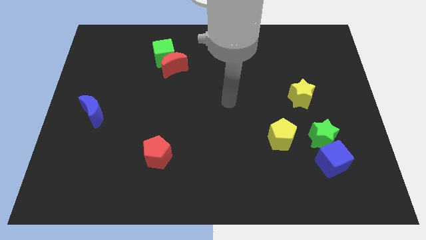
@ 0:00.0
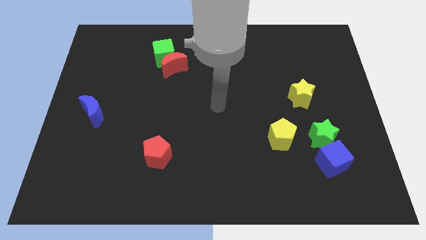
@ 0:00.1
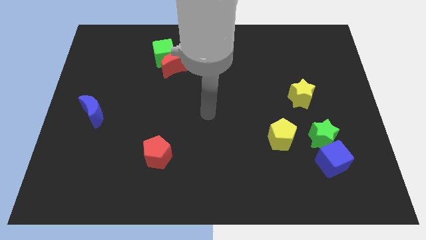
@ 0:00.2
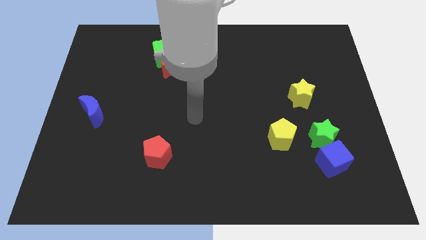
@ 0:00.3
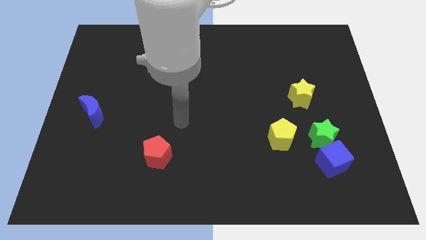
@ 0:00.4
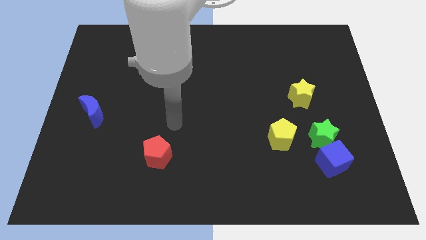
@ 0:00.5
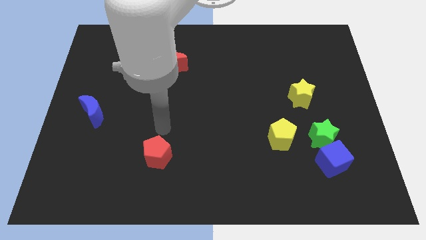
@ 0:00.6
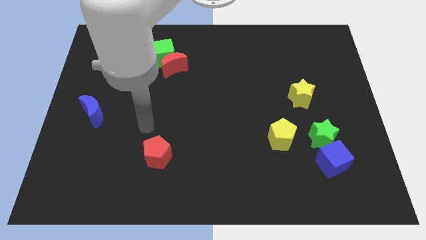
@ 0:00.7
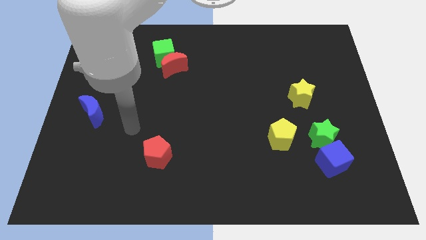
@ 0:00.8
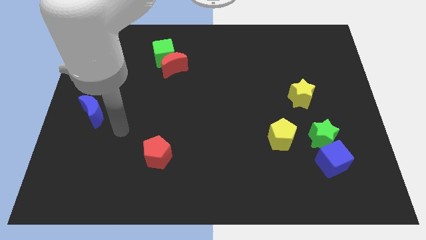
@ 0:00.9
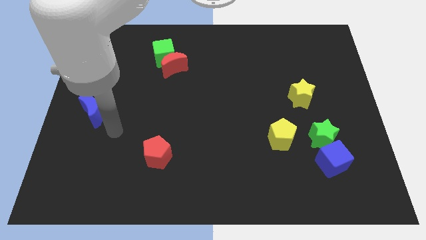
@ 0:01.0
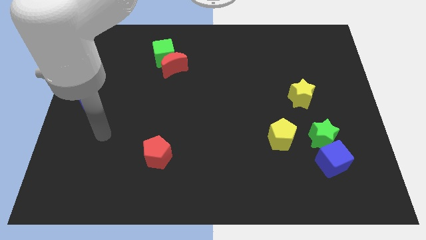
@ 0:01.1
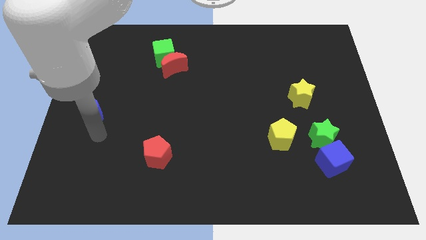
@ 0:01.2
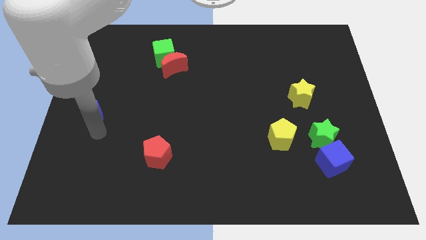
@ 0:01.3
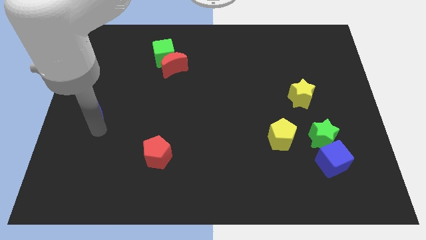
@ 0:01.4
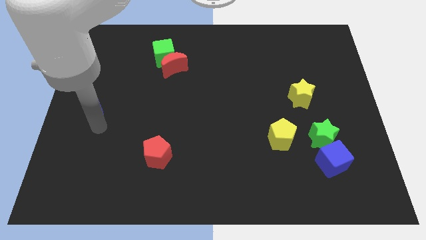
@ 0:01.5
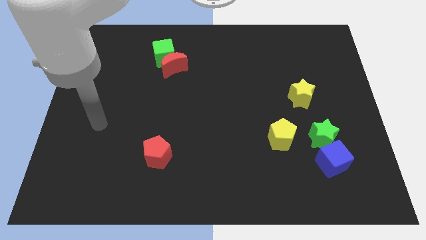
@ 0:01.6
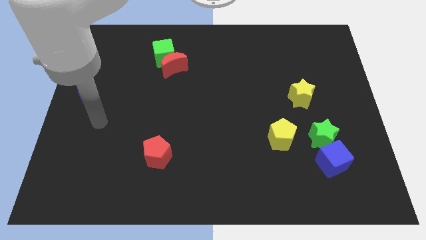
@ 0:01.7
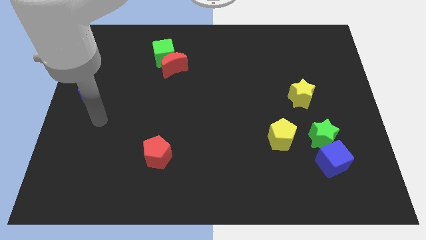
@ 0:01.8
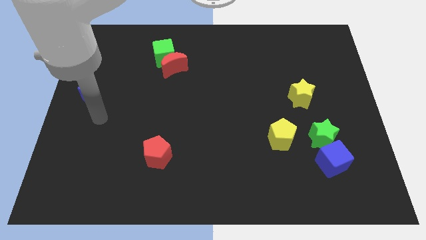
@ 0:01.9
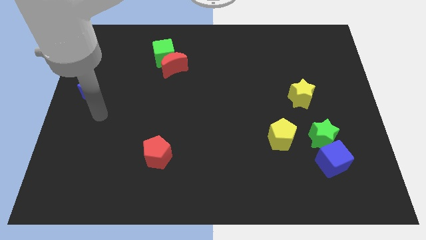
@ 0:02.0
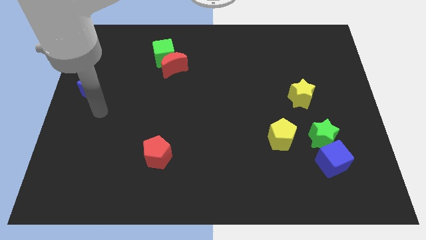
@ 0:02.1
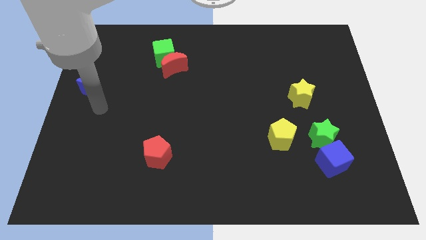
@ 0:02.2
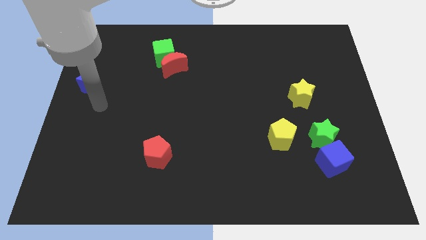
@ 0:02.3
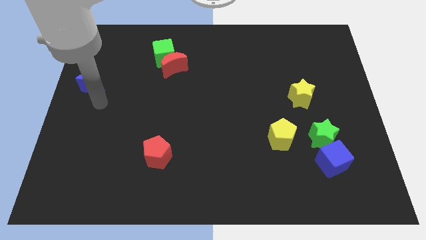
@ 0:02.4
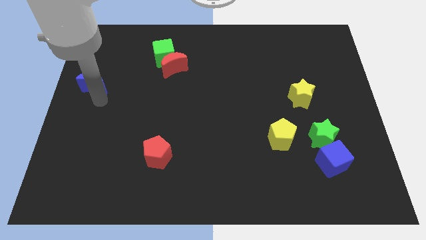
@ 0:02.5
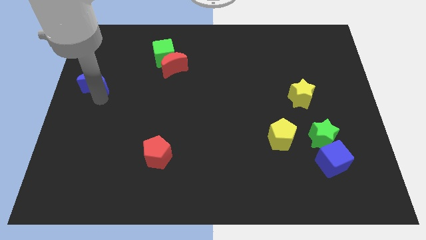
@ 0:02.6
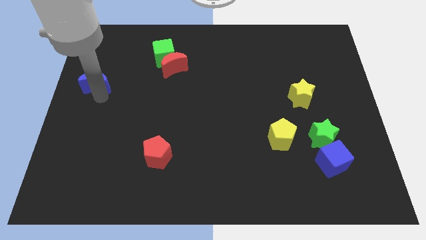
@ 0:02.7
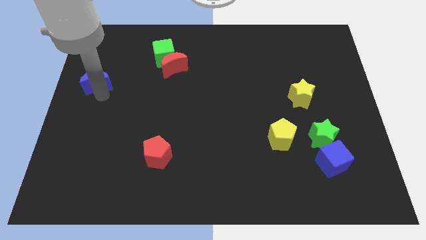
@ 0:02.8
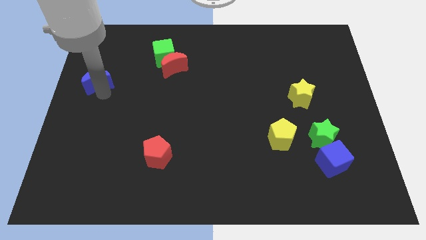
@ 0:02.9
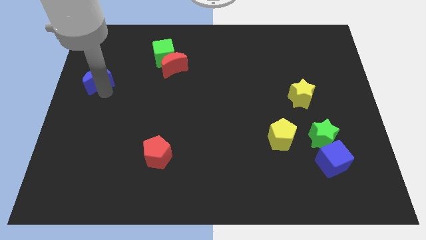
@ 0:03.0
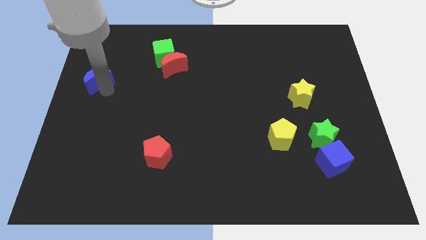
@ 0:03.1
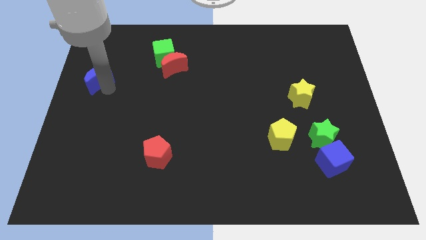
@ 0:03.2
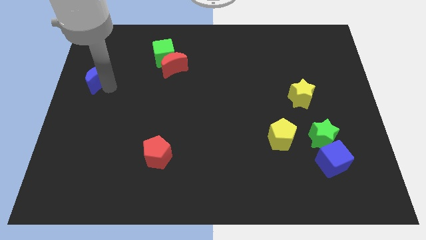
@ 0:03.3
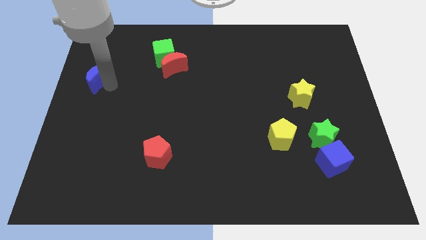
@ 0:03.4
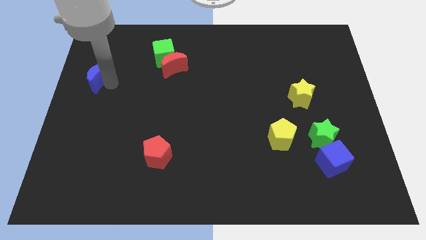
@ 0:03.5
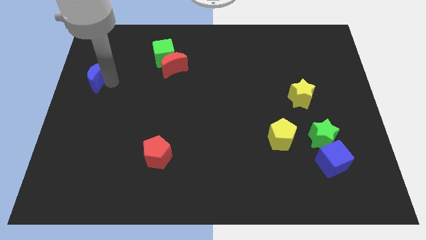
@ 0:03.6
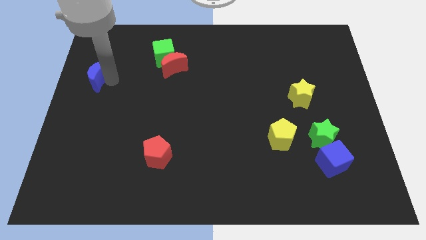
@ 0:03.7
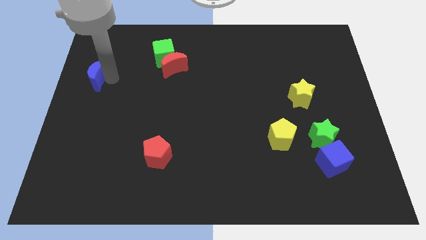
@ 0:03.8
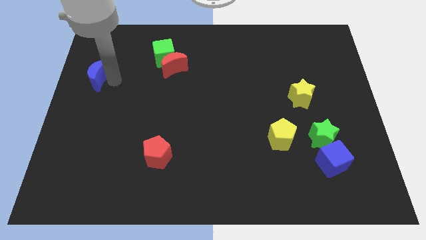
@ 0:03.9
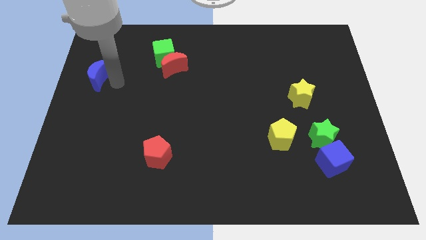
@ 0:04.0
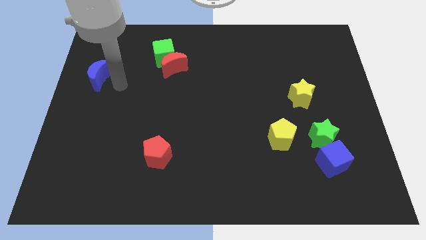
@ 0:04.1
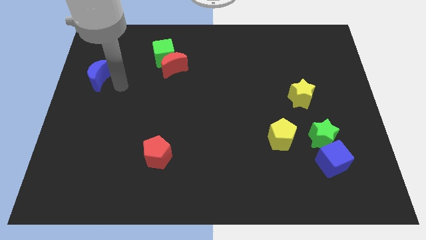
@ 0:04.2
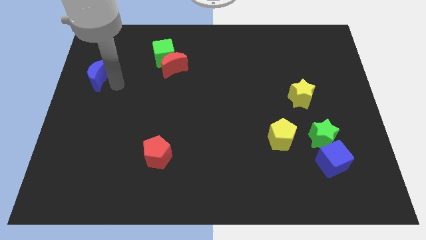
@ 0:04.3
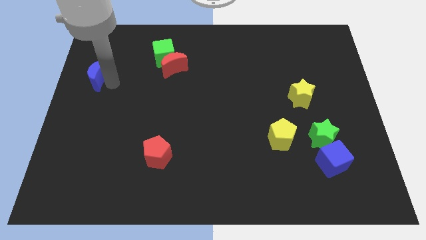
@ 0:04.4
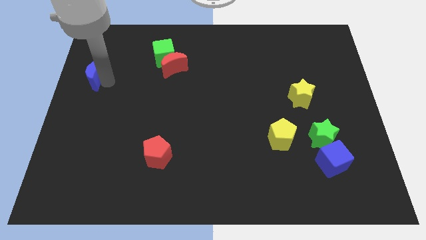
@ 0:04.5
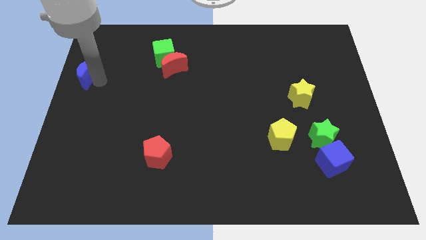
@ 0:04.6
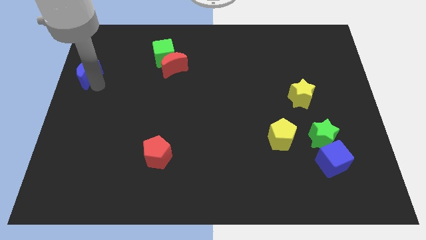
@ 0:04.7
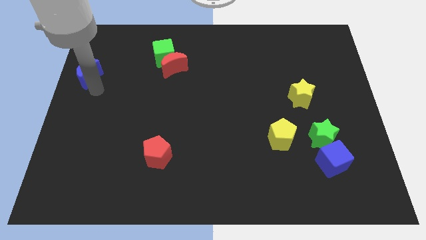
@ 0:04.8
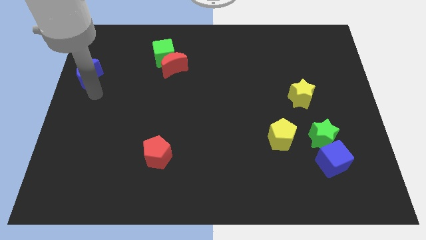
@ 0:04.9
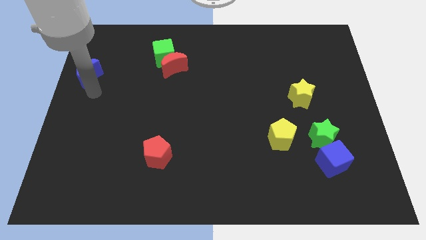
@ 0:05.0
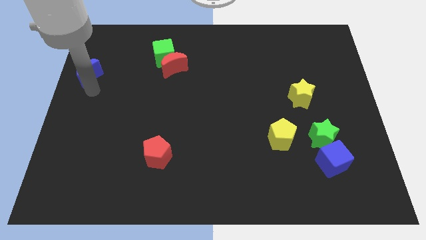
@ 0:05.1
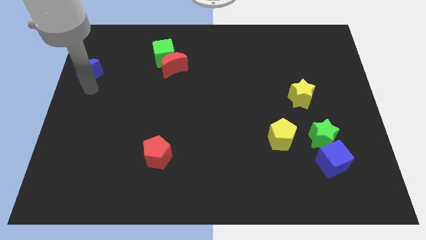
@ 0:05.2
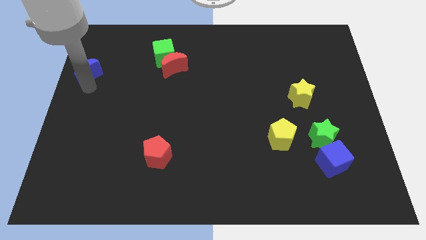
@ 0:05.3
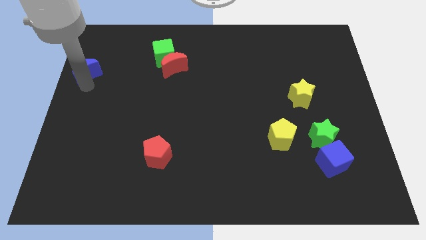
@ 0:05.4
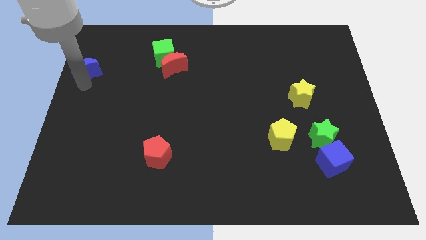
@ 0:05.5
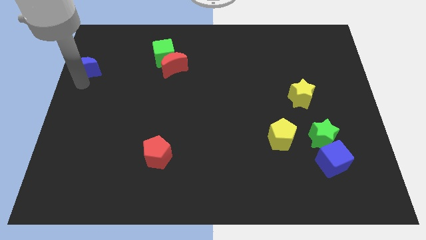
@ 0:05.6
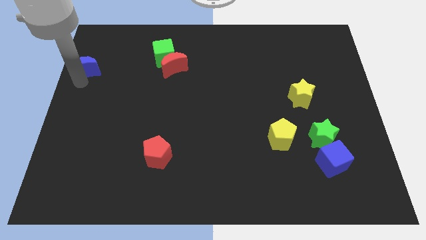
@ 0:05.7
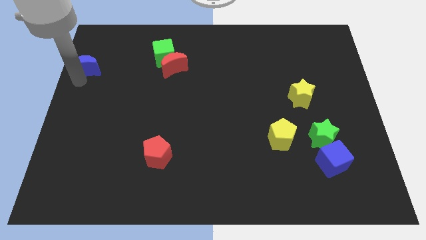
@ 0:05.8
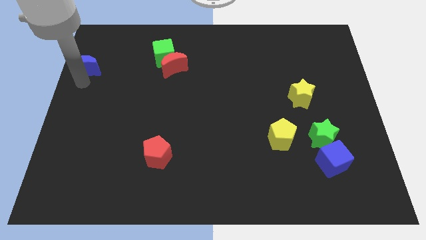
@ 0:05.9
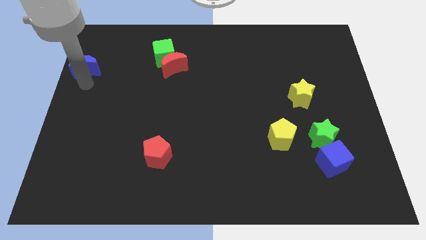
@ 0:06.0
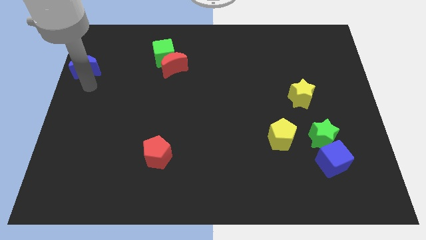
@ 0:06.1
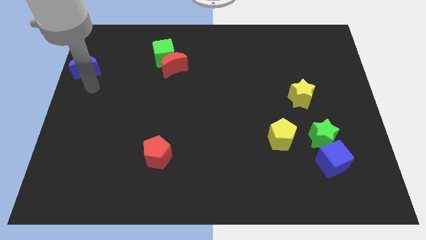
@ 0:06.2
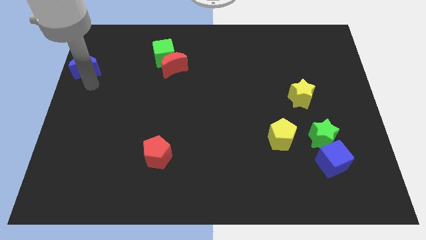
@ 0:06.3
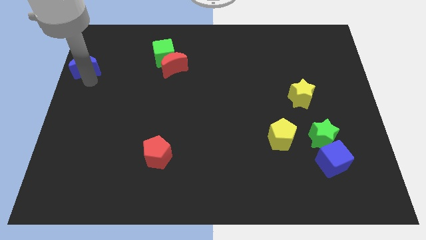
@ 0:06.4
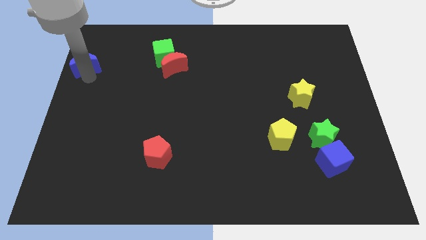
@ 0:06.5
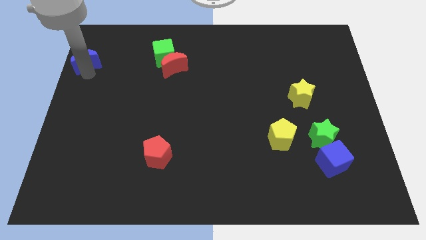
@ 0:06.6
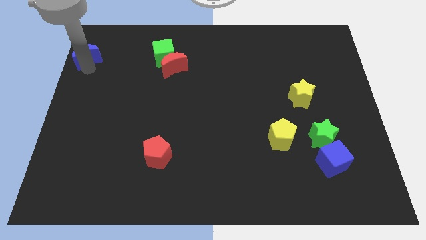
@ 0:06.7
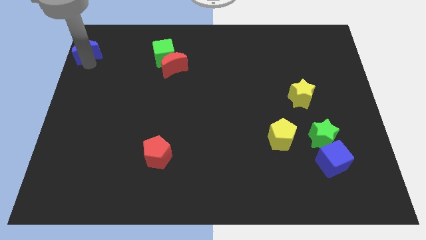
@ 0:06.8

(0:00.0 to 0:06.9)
slide the blue moon to the top left

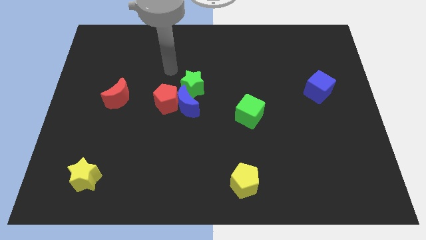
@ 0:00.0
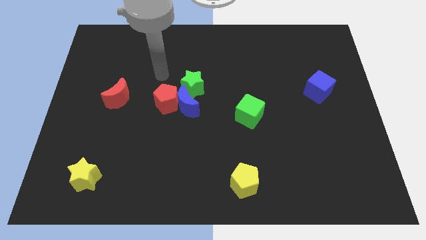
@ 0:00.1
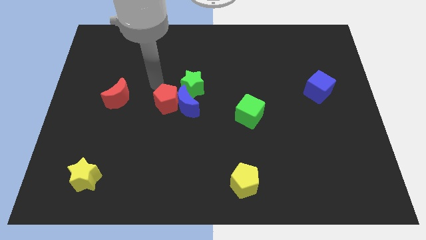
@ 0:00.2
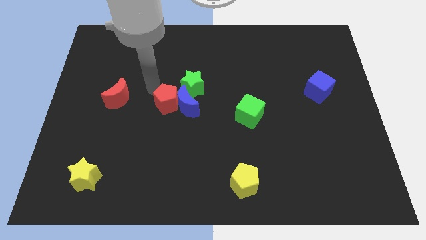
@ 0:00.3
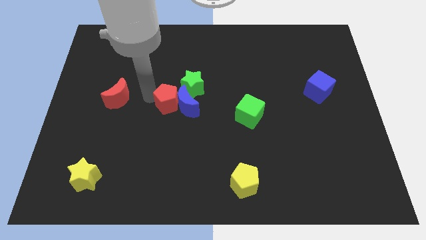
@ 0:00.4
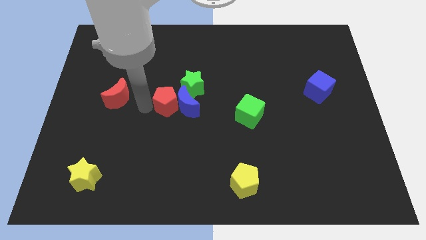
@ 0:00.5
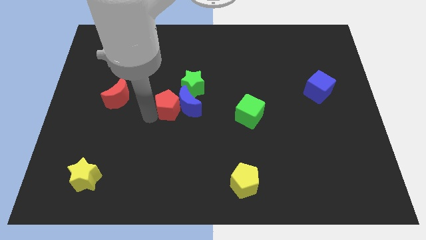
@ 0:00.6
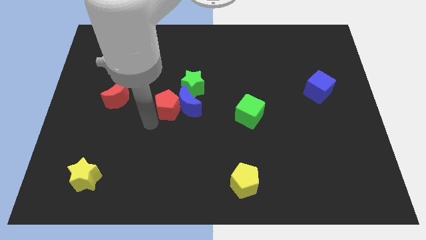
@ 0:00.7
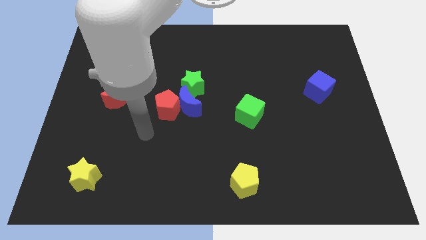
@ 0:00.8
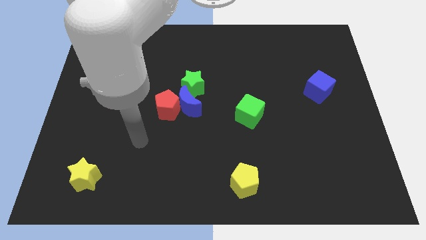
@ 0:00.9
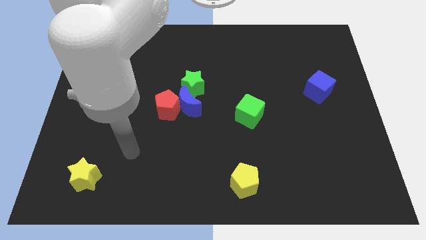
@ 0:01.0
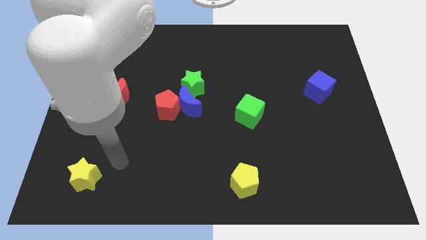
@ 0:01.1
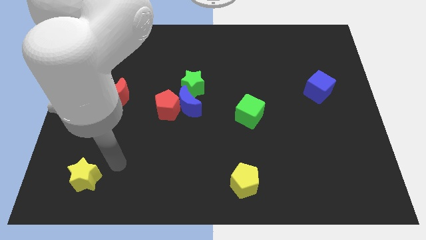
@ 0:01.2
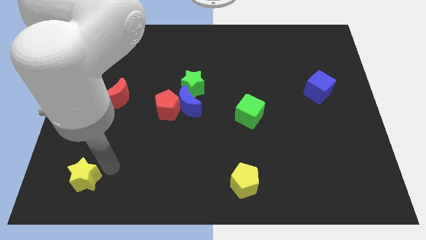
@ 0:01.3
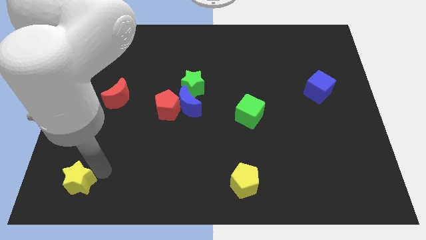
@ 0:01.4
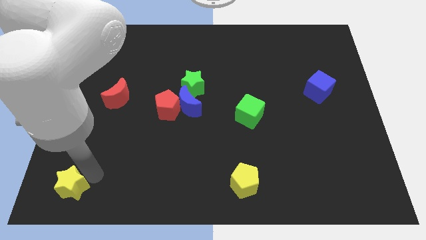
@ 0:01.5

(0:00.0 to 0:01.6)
put the yellow star to the bottom left of the board
